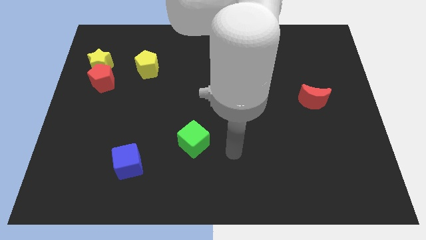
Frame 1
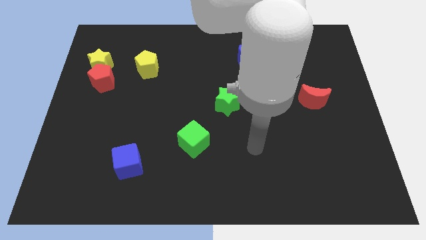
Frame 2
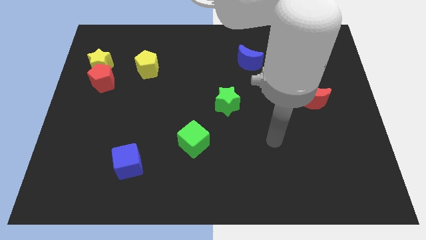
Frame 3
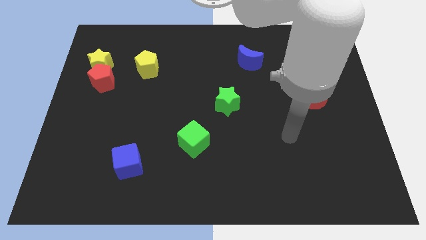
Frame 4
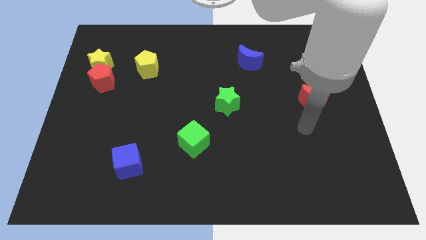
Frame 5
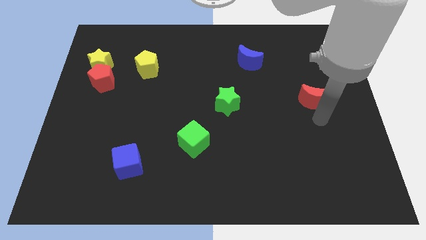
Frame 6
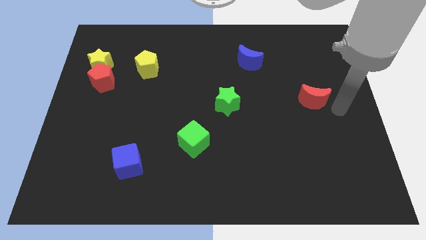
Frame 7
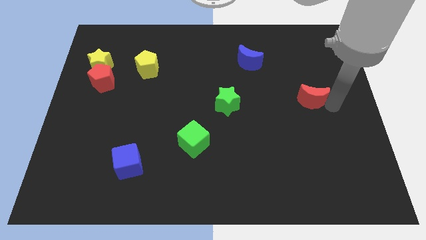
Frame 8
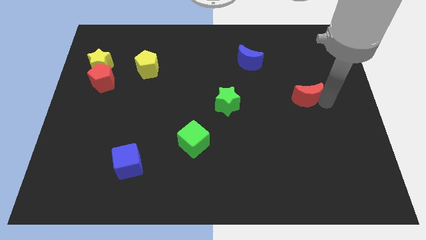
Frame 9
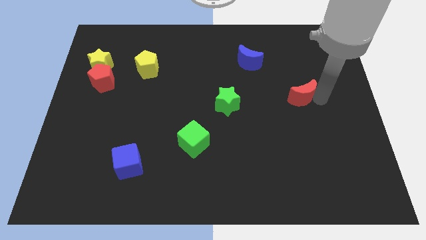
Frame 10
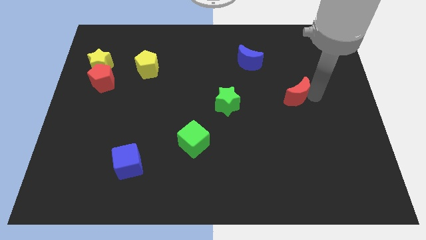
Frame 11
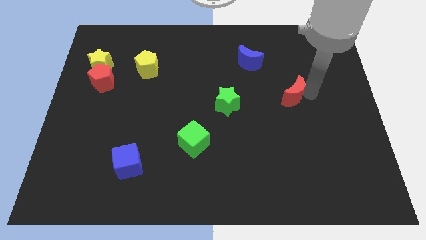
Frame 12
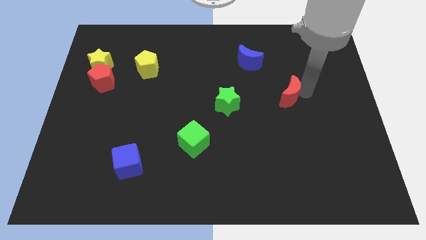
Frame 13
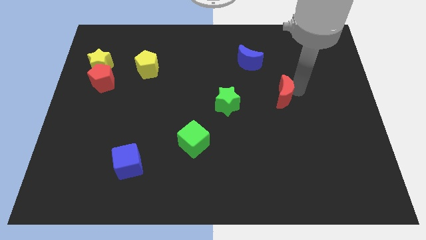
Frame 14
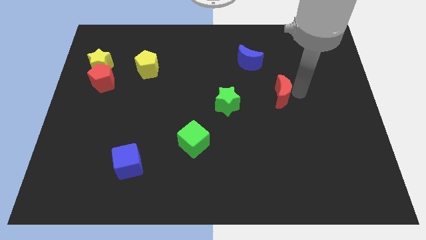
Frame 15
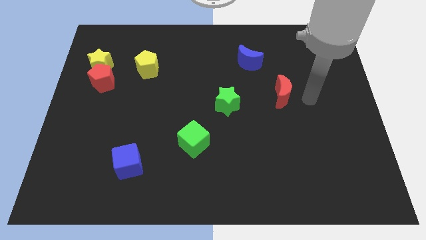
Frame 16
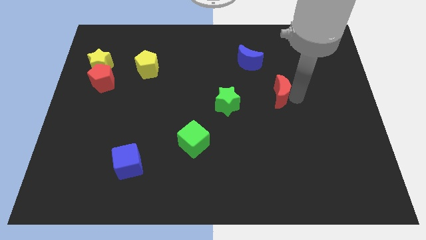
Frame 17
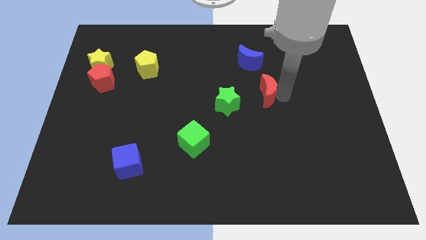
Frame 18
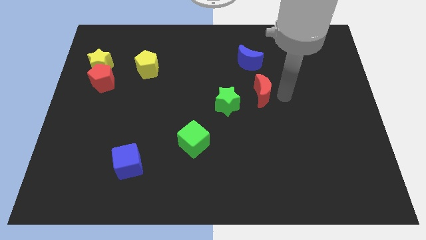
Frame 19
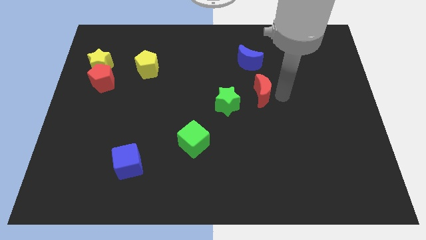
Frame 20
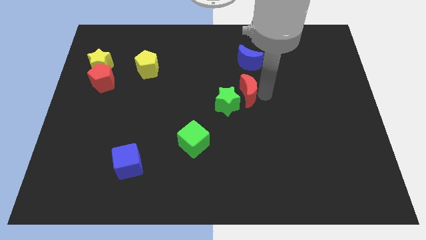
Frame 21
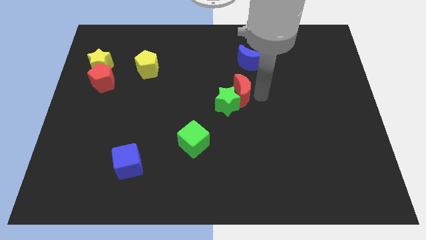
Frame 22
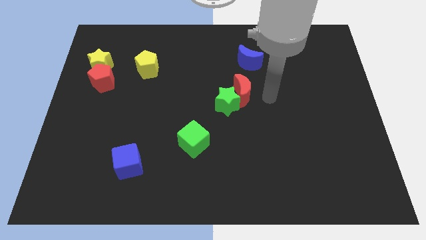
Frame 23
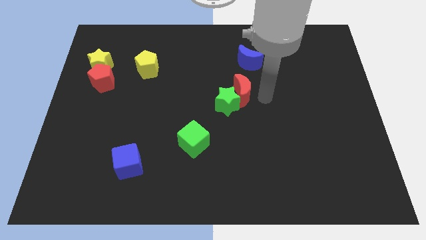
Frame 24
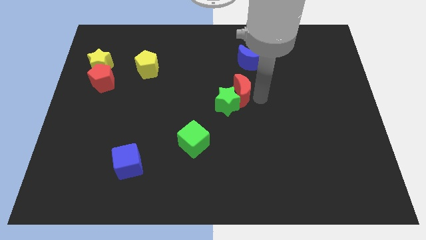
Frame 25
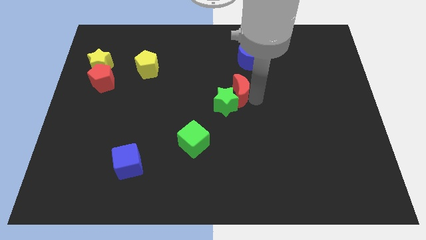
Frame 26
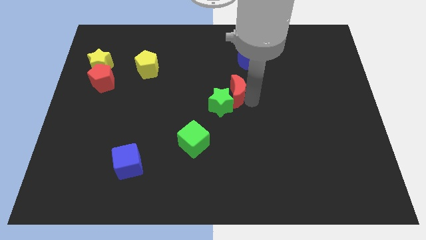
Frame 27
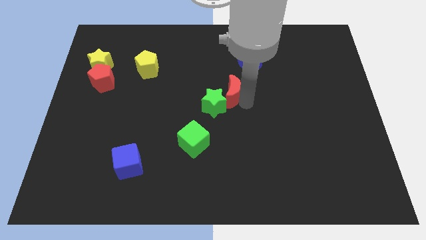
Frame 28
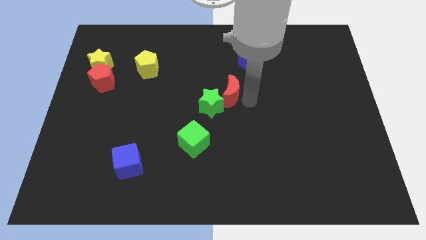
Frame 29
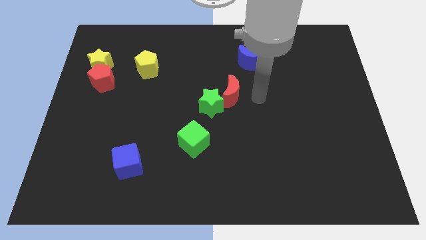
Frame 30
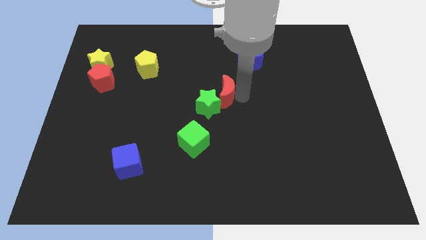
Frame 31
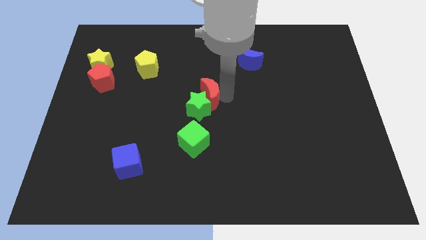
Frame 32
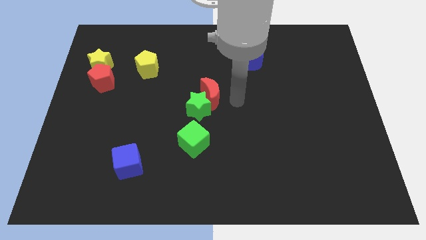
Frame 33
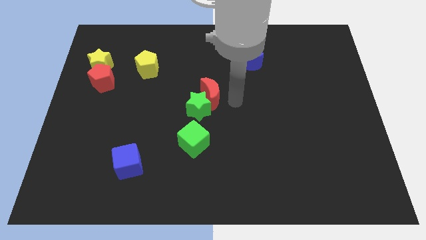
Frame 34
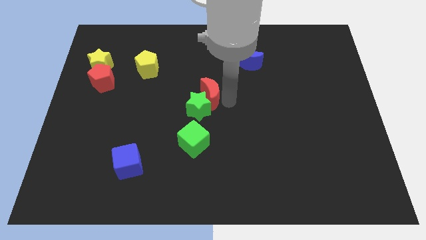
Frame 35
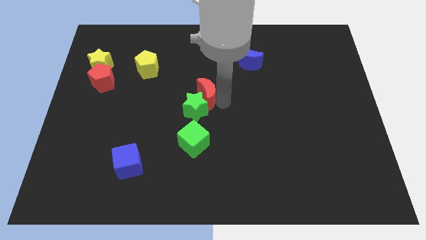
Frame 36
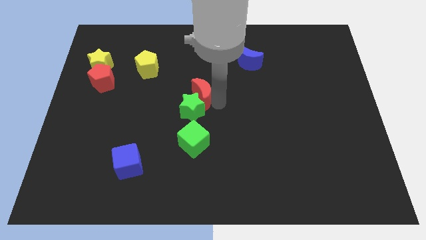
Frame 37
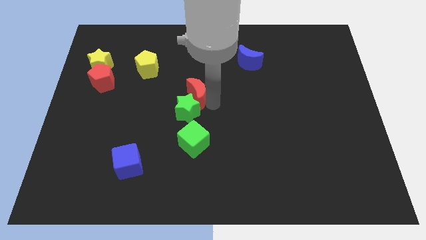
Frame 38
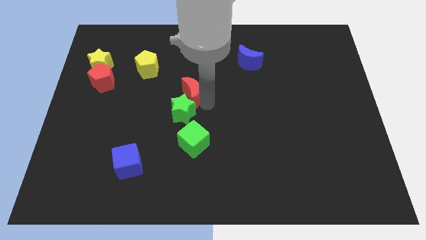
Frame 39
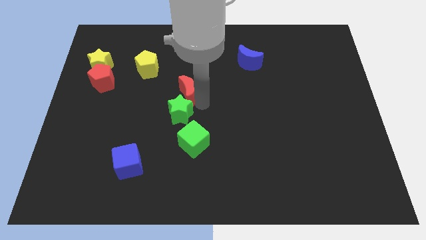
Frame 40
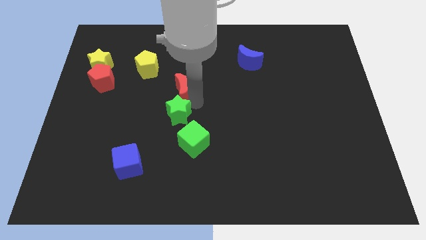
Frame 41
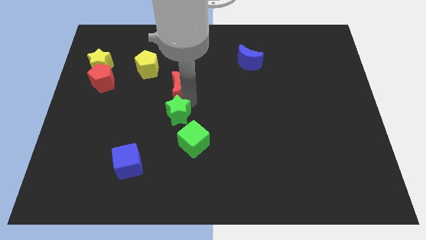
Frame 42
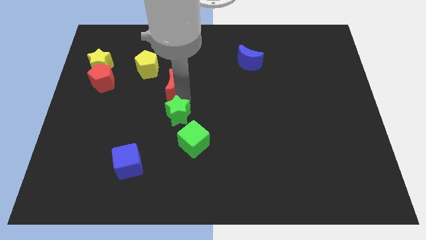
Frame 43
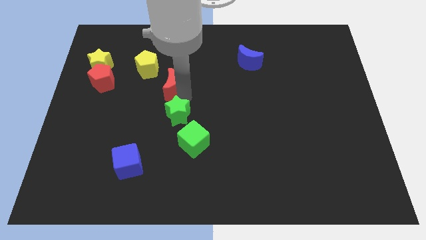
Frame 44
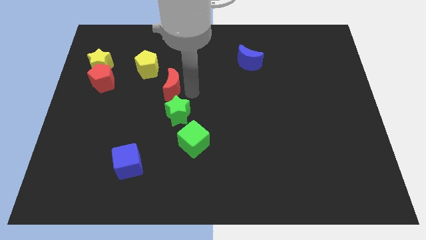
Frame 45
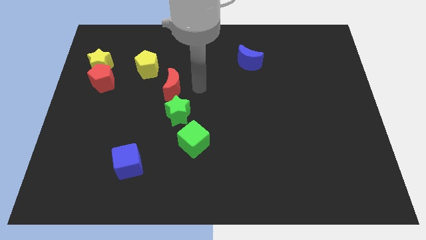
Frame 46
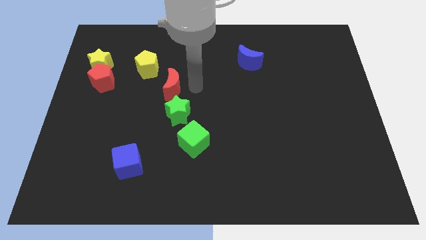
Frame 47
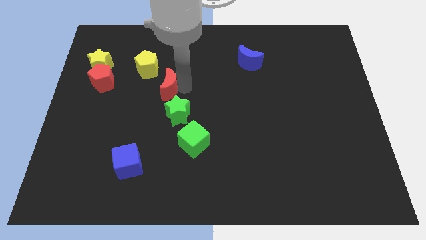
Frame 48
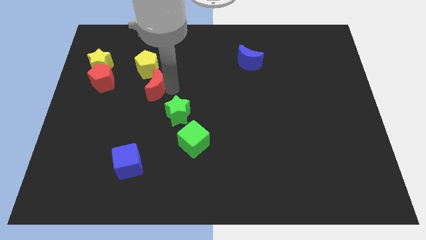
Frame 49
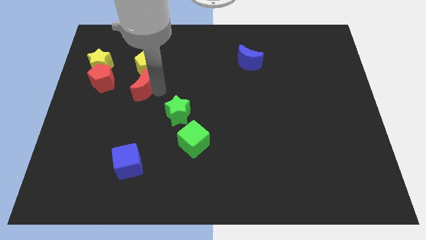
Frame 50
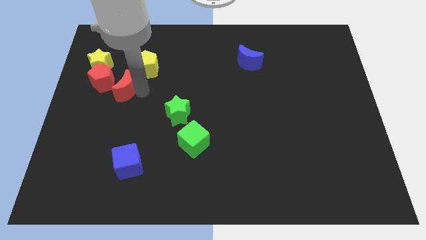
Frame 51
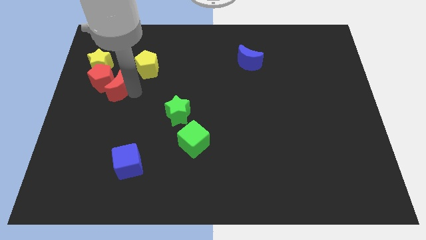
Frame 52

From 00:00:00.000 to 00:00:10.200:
put the red moon next to the red pentagon

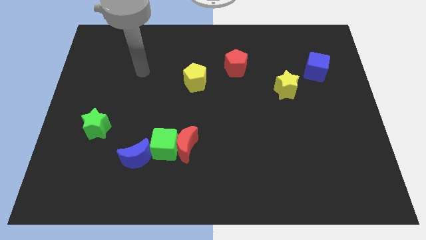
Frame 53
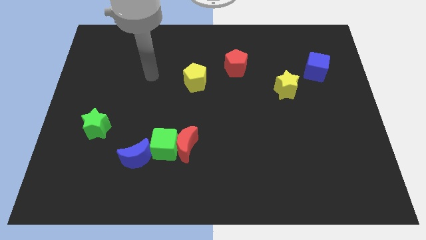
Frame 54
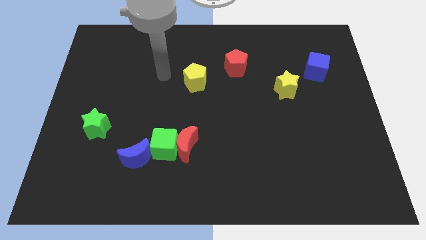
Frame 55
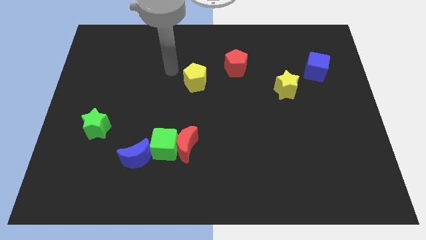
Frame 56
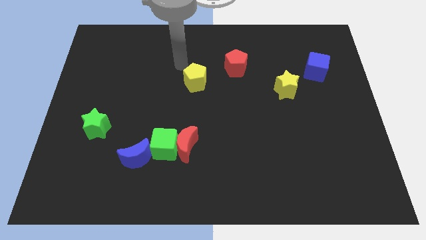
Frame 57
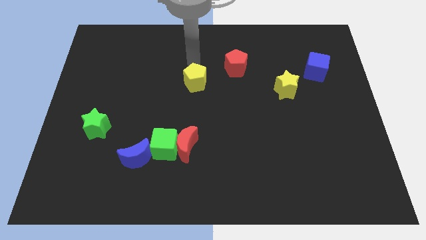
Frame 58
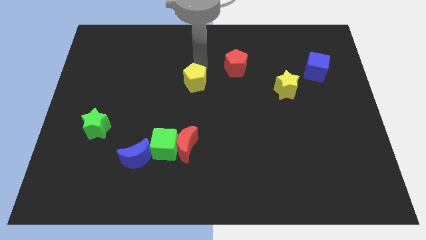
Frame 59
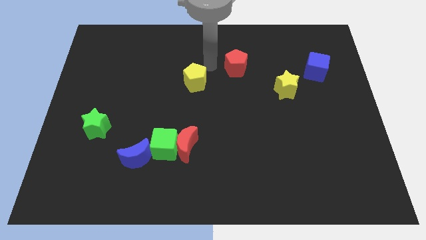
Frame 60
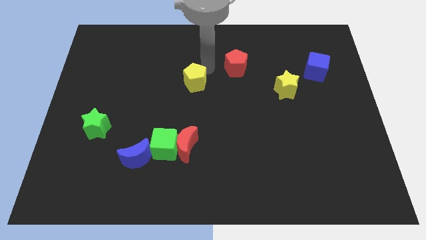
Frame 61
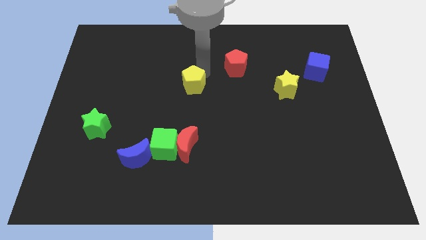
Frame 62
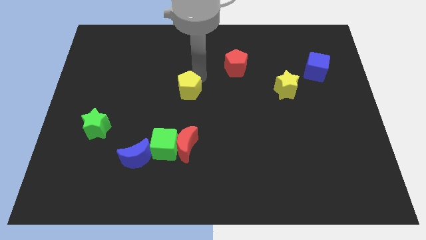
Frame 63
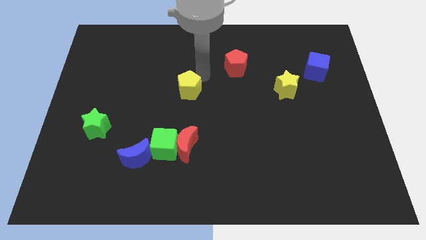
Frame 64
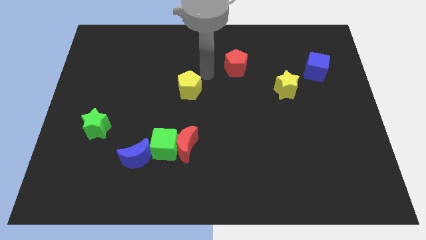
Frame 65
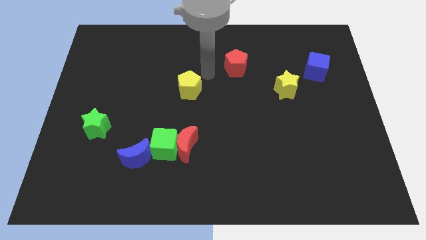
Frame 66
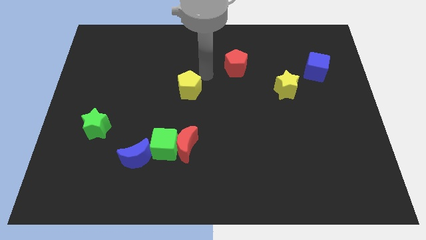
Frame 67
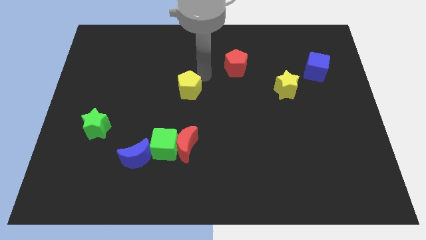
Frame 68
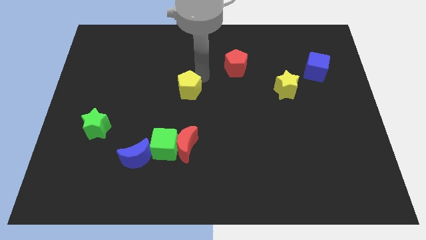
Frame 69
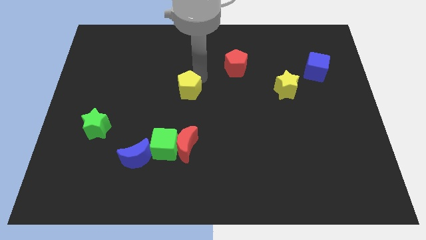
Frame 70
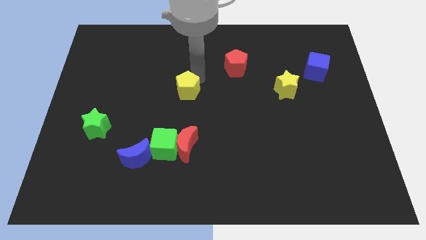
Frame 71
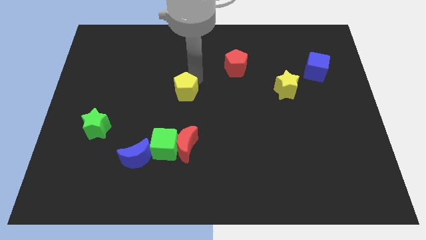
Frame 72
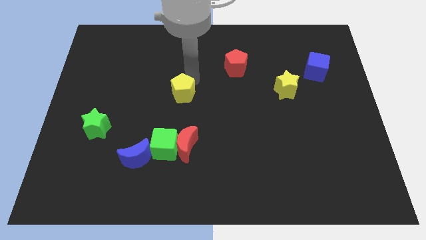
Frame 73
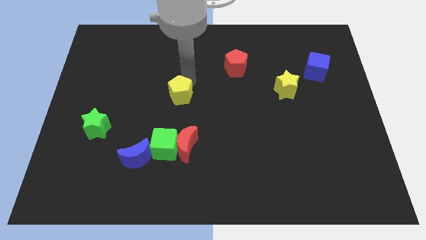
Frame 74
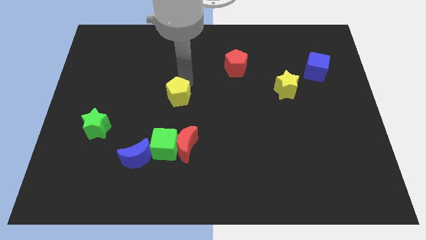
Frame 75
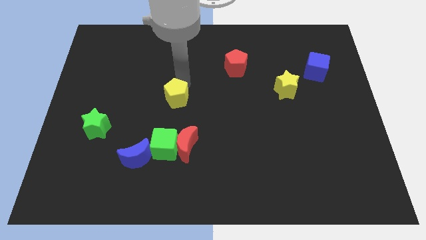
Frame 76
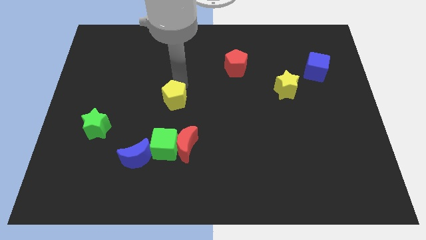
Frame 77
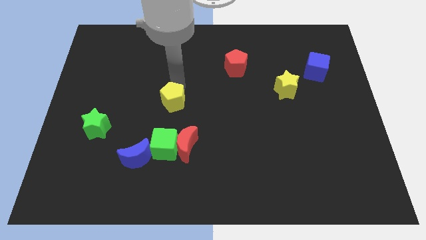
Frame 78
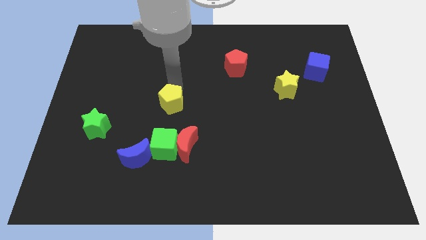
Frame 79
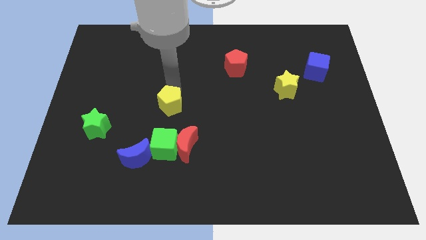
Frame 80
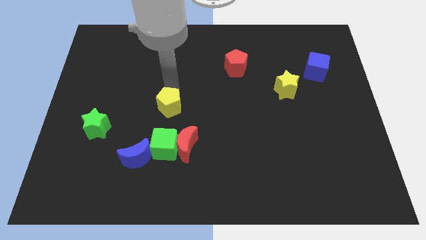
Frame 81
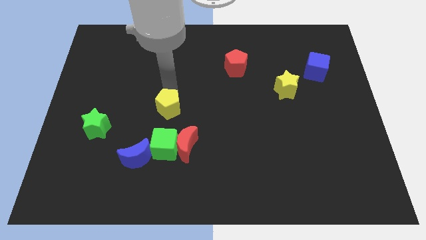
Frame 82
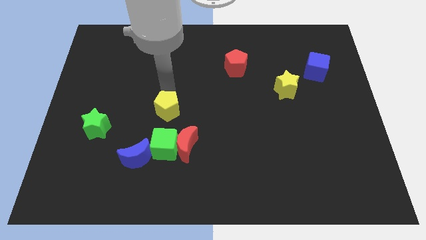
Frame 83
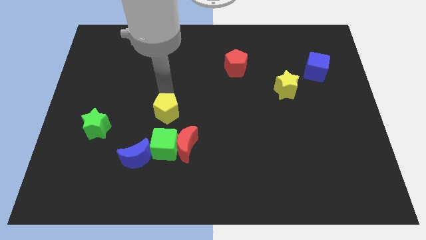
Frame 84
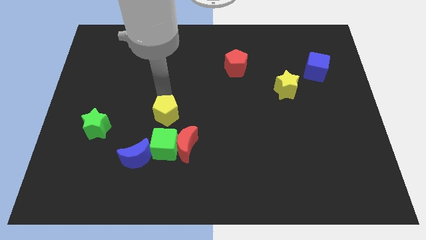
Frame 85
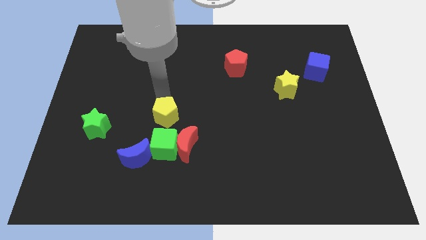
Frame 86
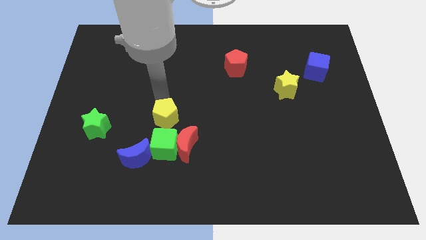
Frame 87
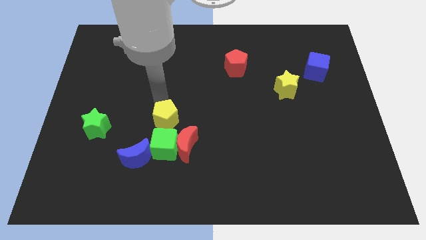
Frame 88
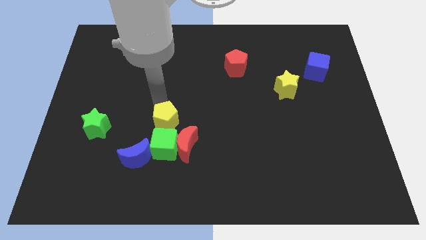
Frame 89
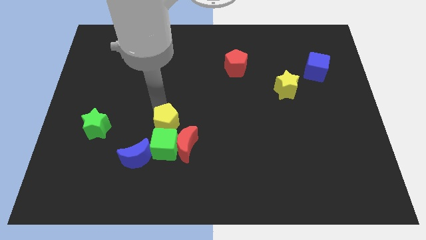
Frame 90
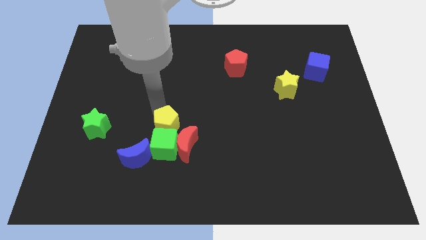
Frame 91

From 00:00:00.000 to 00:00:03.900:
slide the yellow pentagon next to the green cube
